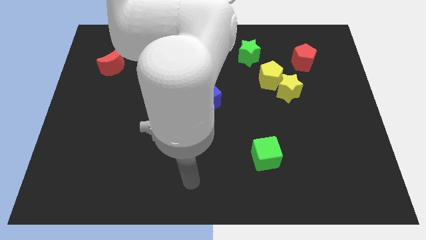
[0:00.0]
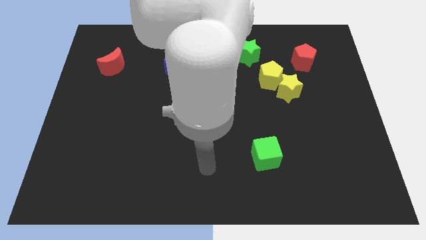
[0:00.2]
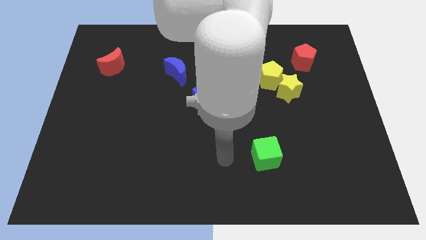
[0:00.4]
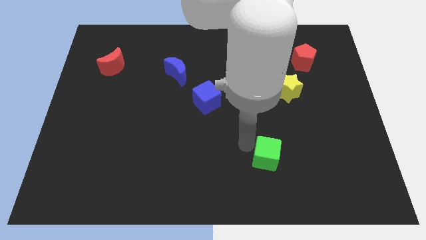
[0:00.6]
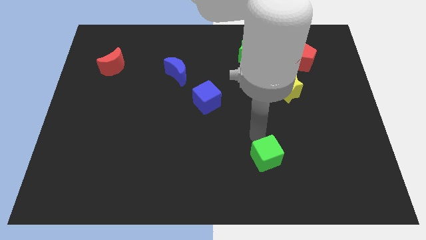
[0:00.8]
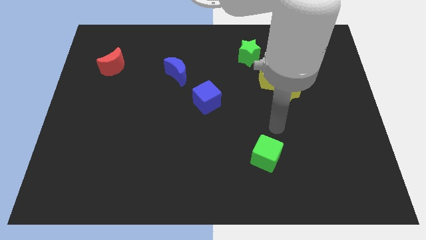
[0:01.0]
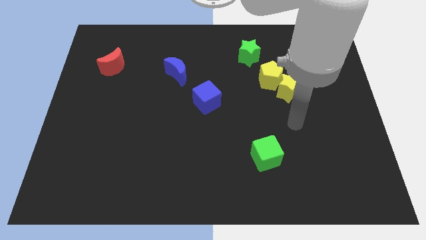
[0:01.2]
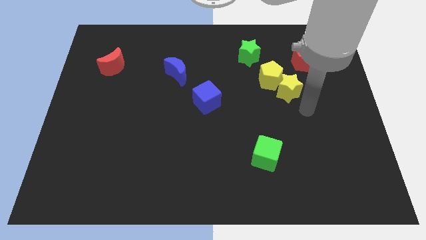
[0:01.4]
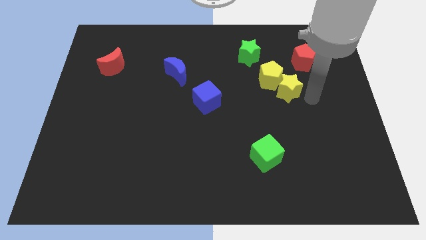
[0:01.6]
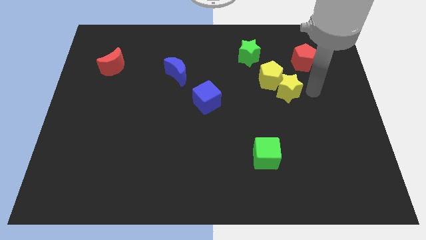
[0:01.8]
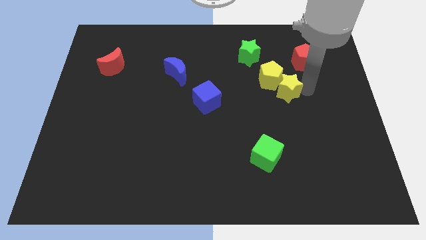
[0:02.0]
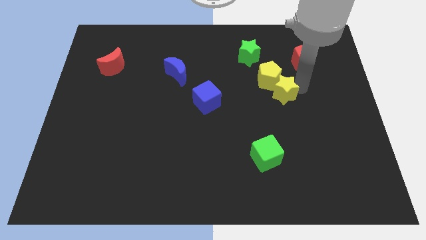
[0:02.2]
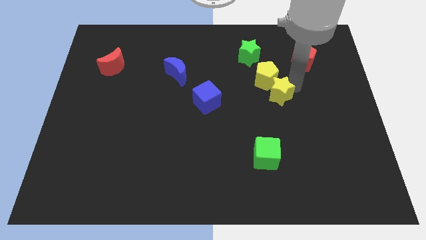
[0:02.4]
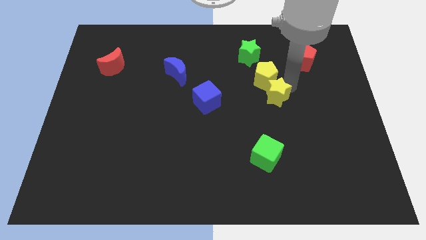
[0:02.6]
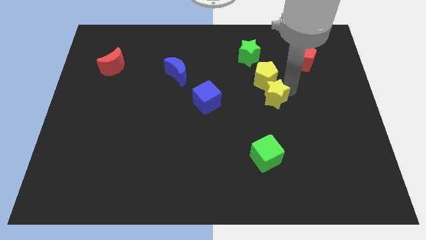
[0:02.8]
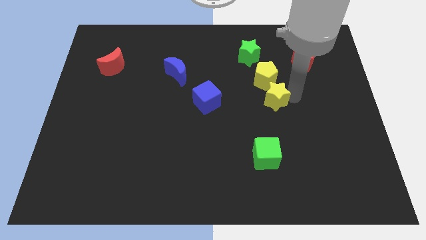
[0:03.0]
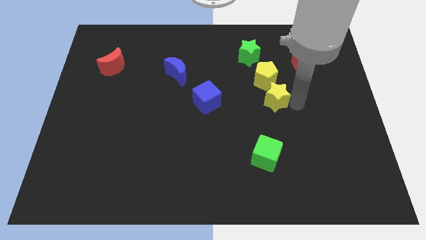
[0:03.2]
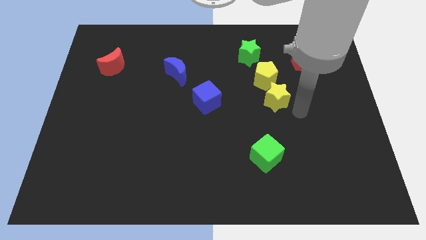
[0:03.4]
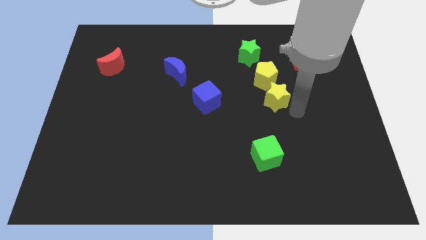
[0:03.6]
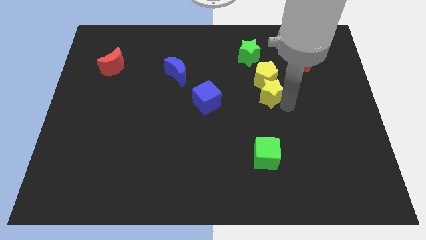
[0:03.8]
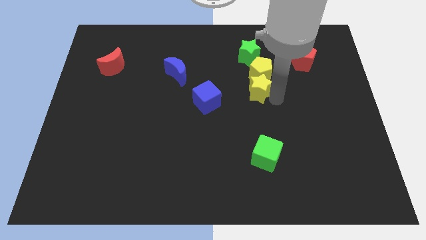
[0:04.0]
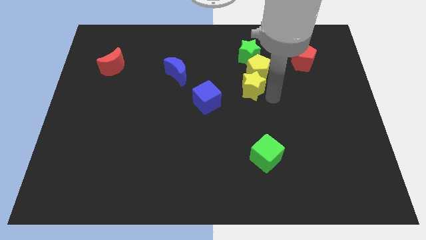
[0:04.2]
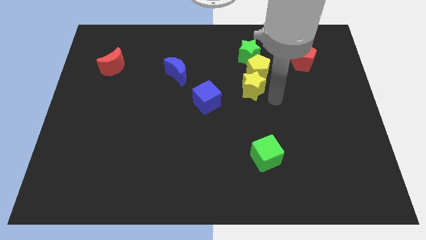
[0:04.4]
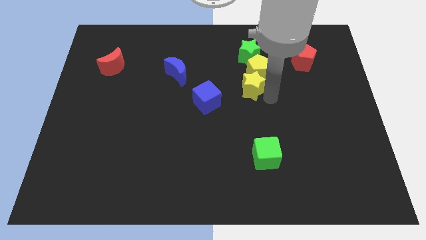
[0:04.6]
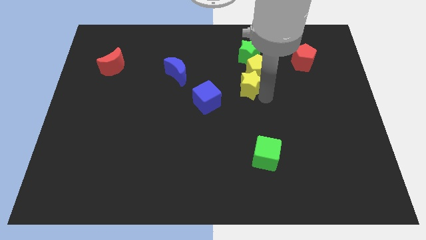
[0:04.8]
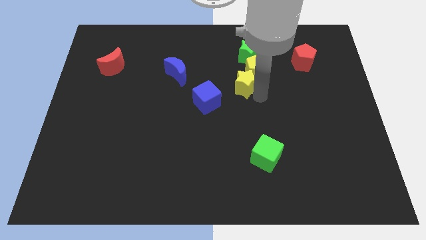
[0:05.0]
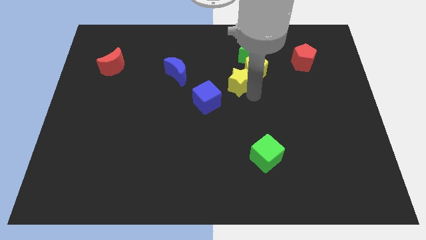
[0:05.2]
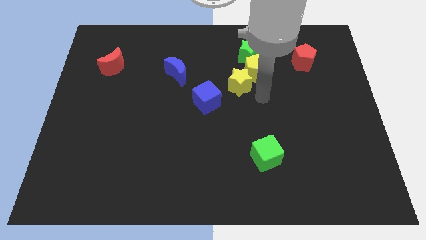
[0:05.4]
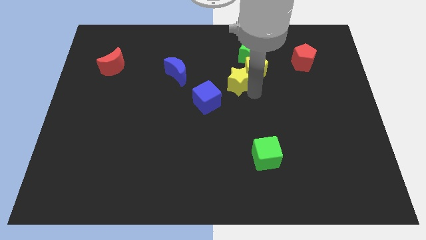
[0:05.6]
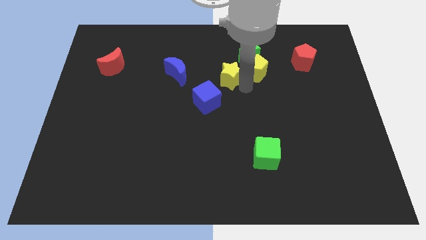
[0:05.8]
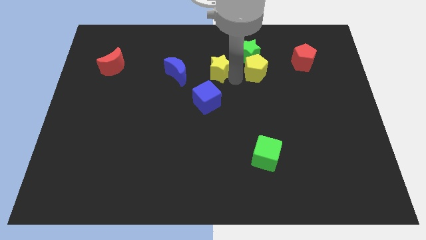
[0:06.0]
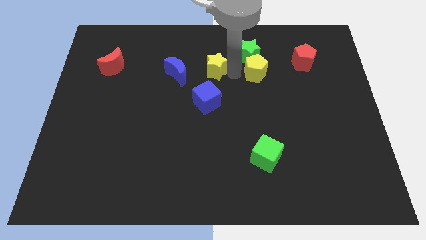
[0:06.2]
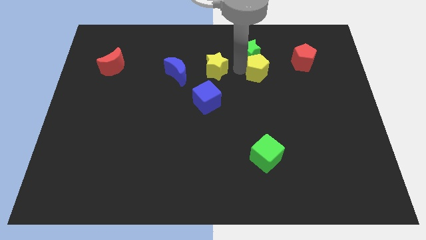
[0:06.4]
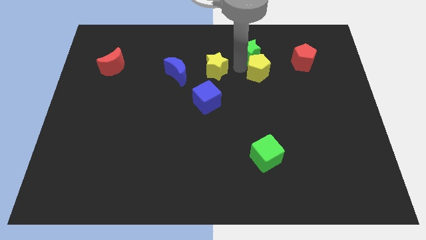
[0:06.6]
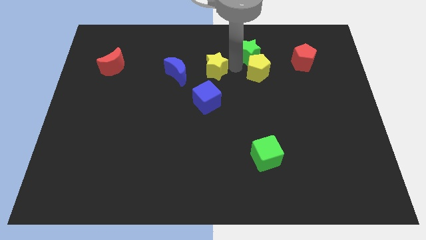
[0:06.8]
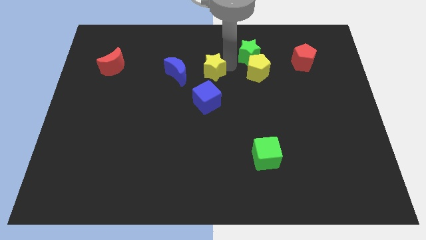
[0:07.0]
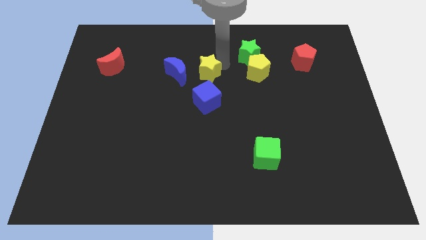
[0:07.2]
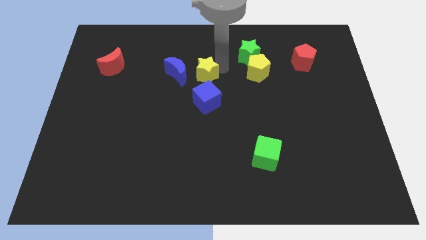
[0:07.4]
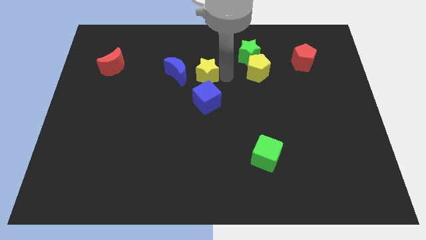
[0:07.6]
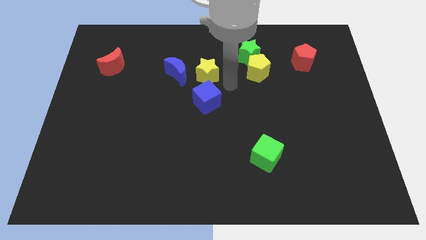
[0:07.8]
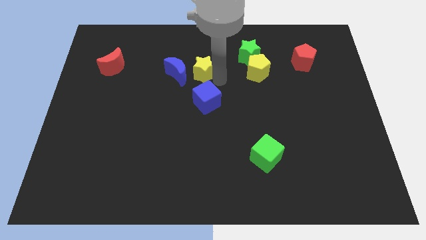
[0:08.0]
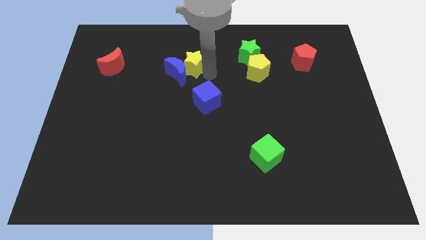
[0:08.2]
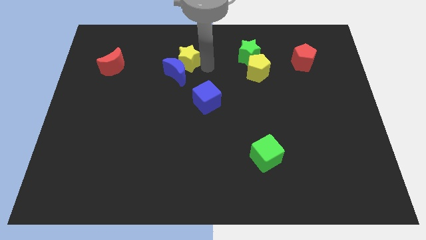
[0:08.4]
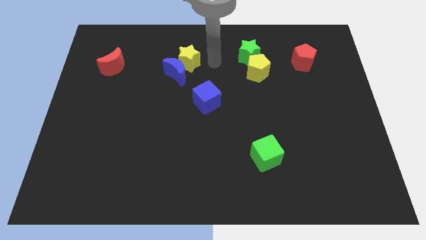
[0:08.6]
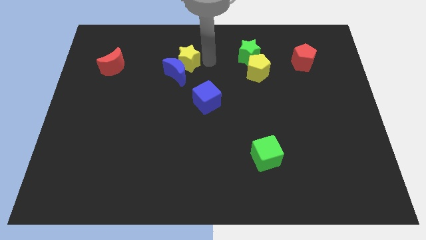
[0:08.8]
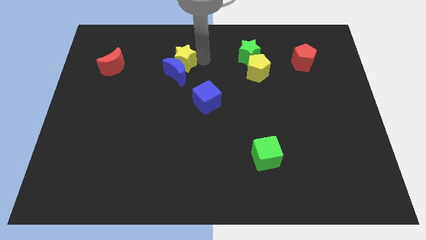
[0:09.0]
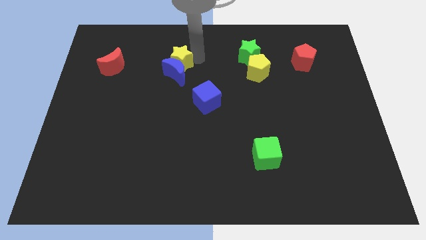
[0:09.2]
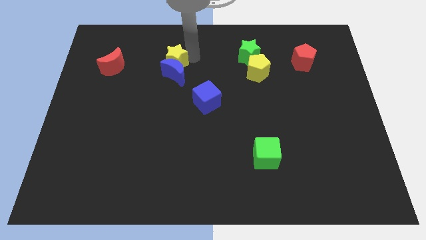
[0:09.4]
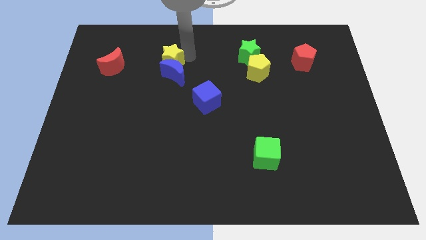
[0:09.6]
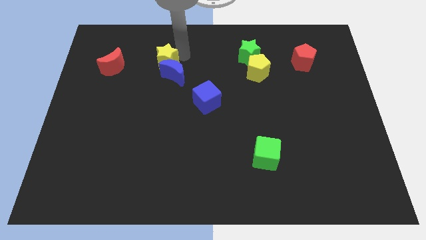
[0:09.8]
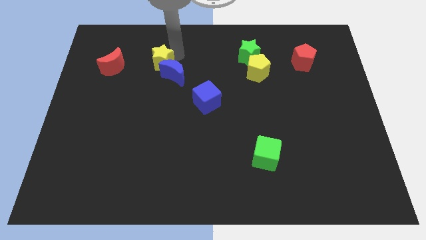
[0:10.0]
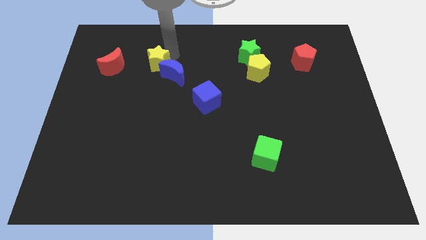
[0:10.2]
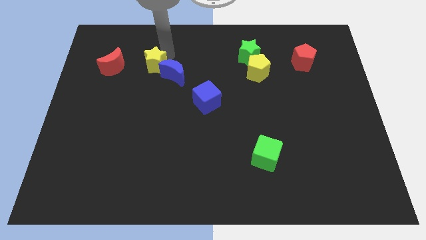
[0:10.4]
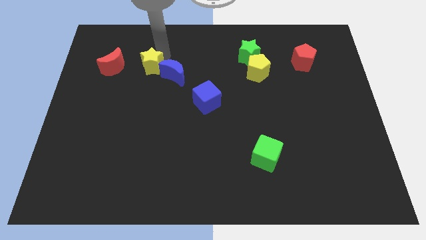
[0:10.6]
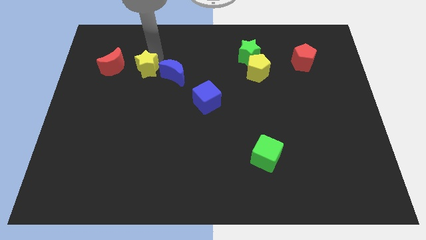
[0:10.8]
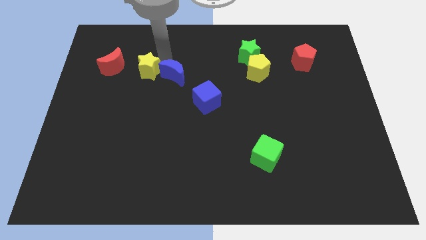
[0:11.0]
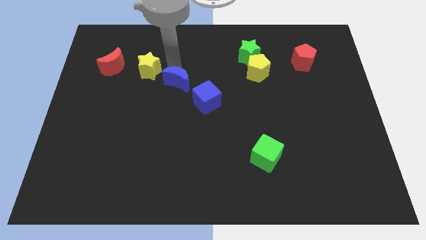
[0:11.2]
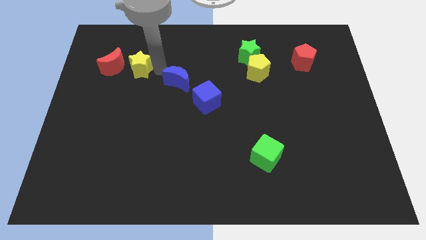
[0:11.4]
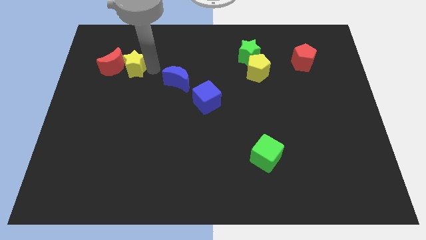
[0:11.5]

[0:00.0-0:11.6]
move the yellow star close to the red moon

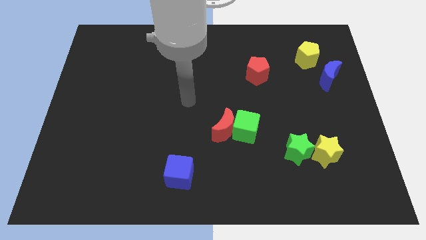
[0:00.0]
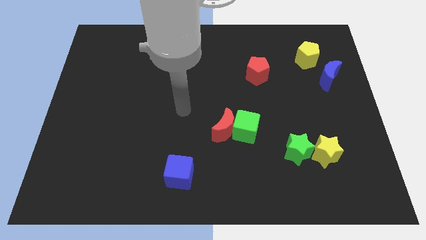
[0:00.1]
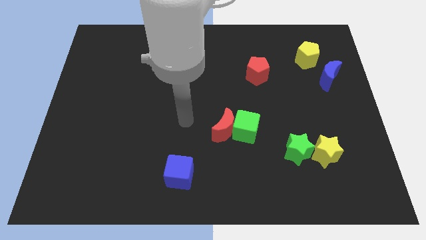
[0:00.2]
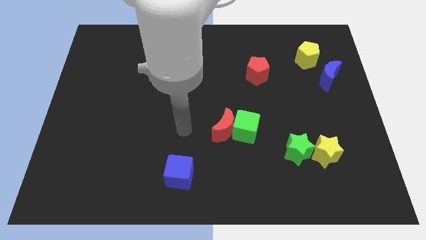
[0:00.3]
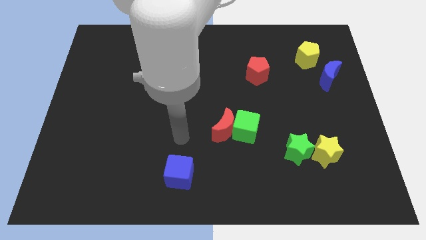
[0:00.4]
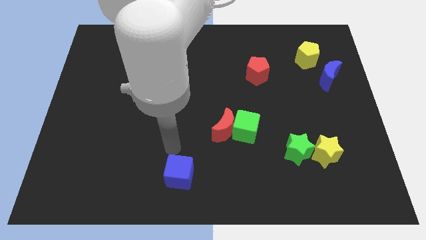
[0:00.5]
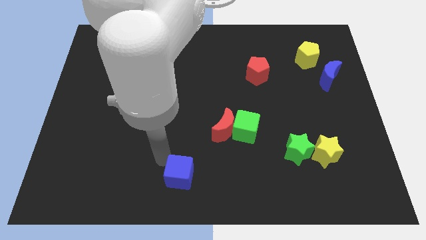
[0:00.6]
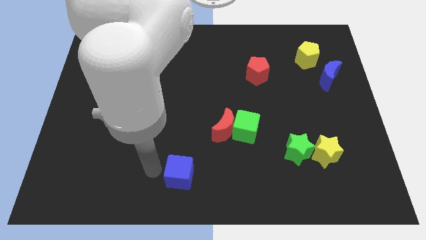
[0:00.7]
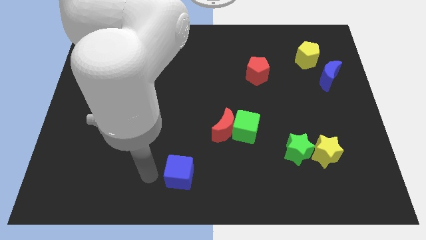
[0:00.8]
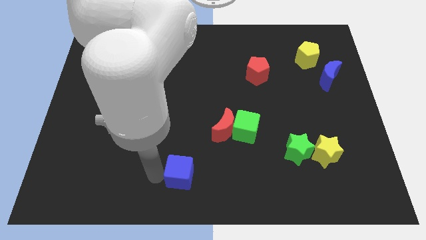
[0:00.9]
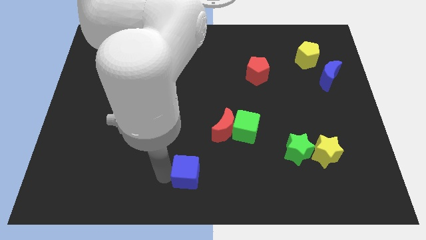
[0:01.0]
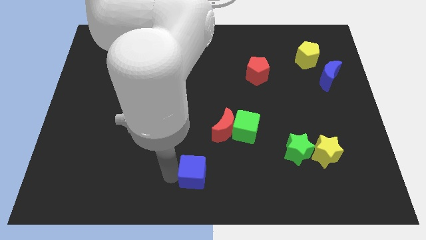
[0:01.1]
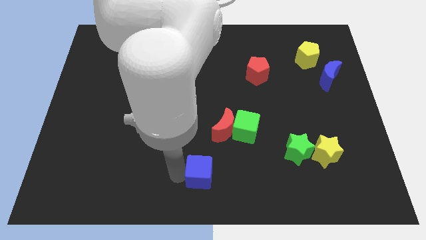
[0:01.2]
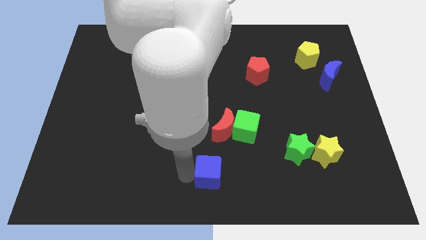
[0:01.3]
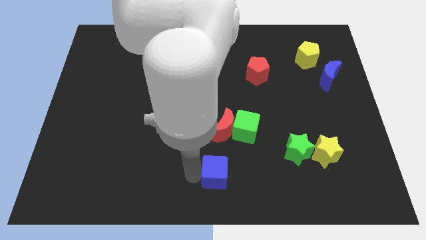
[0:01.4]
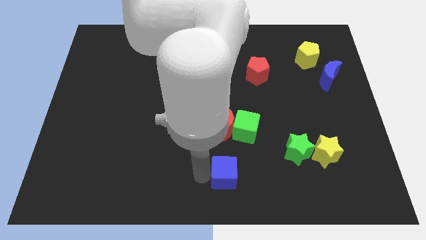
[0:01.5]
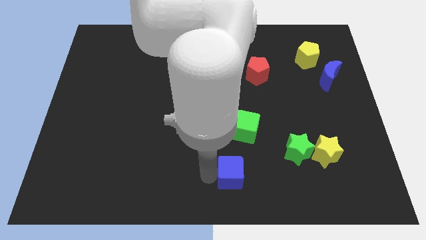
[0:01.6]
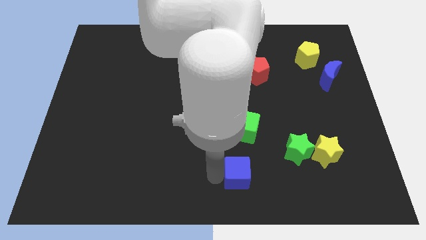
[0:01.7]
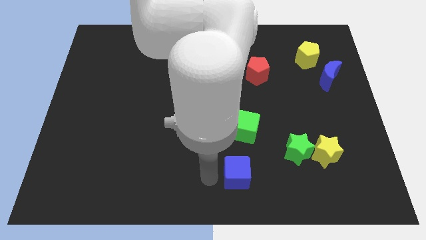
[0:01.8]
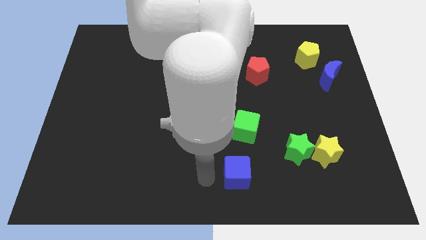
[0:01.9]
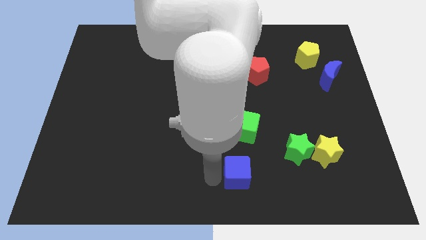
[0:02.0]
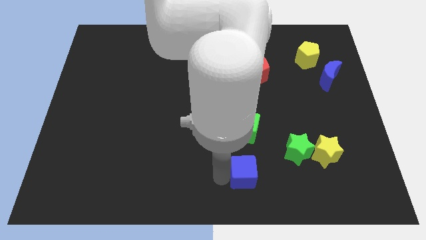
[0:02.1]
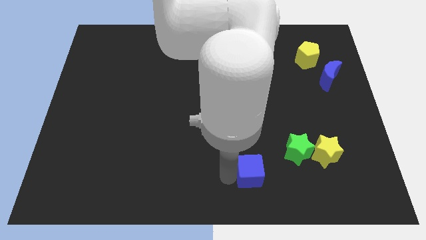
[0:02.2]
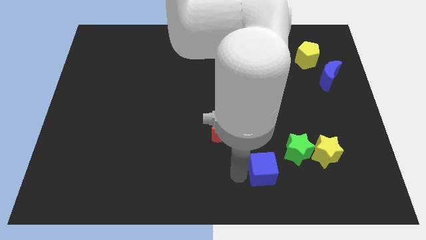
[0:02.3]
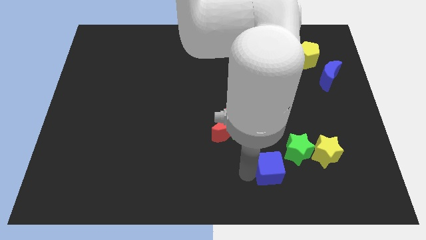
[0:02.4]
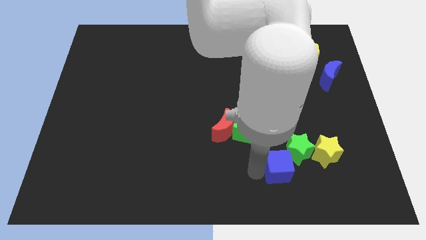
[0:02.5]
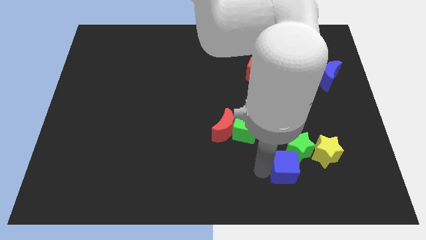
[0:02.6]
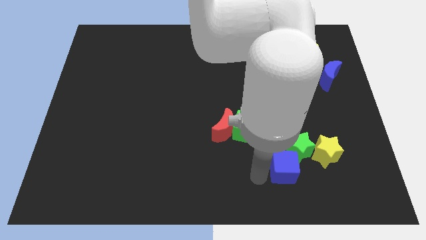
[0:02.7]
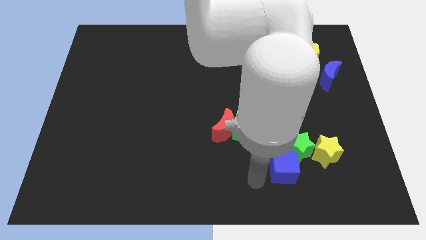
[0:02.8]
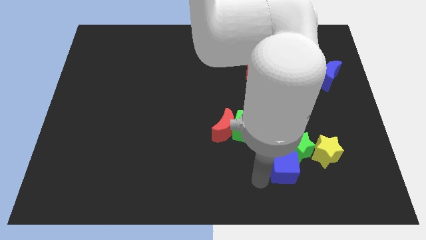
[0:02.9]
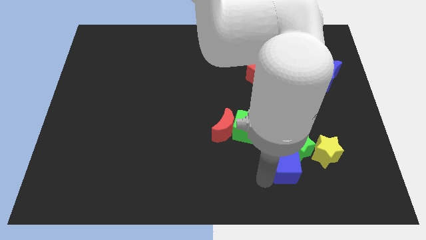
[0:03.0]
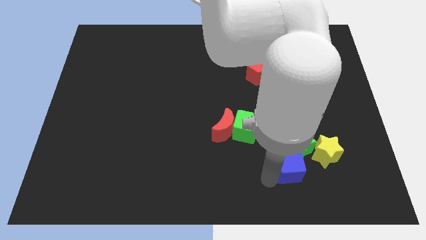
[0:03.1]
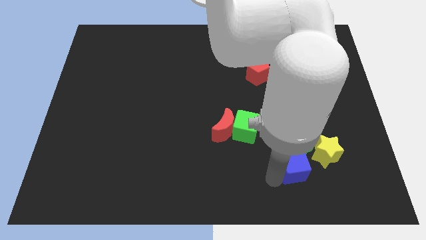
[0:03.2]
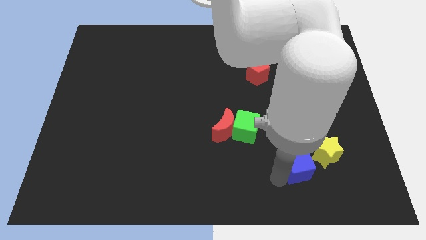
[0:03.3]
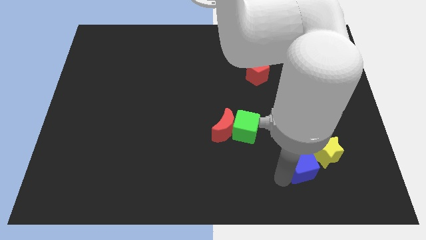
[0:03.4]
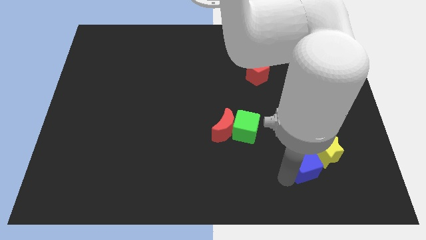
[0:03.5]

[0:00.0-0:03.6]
slide the blue cube to the yellow star
